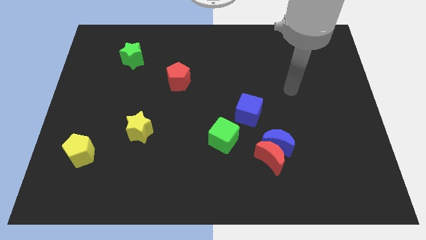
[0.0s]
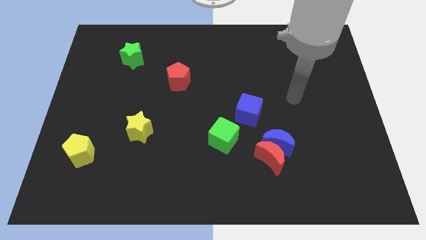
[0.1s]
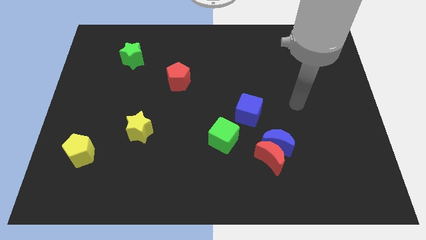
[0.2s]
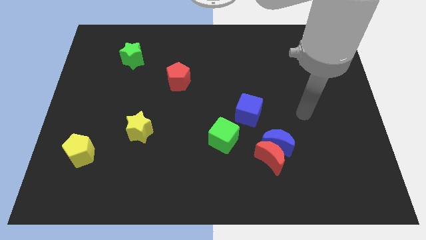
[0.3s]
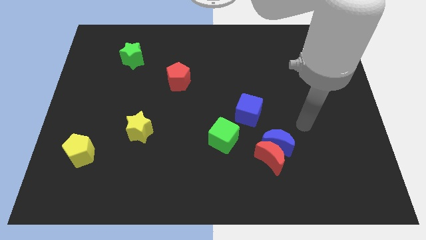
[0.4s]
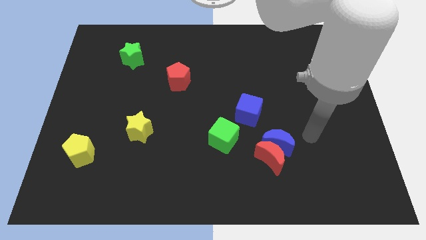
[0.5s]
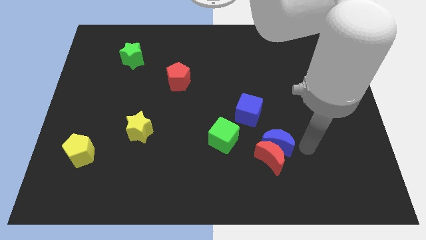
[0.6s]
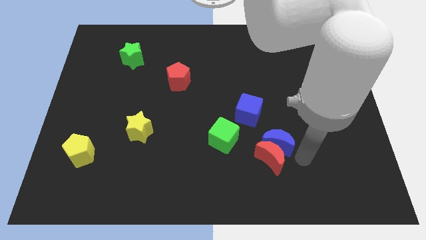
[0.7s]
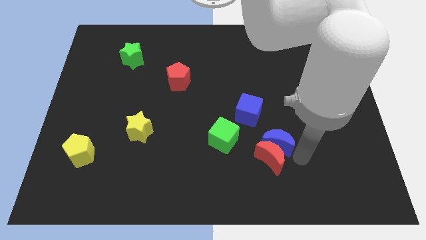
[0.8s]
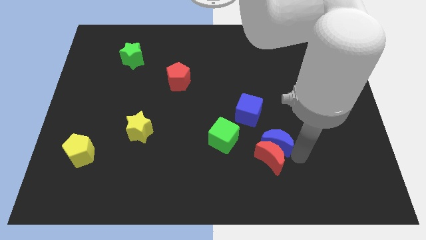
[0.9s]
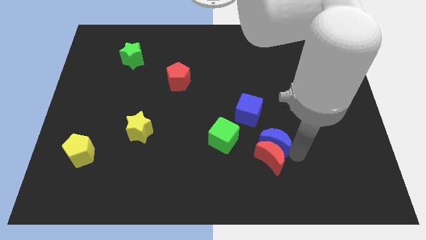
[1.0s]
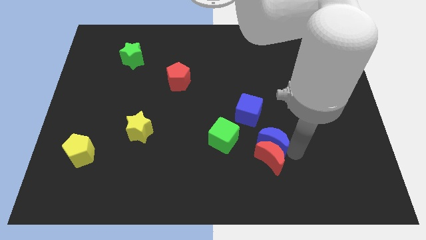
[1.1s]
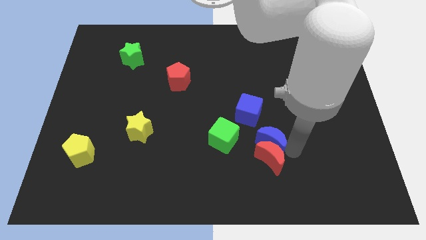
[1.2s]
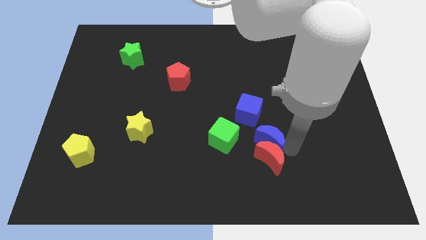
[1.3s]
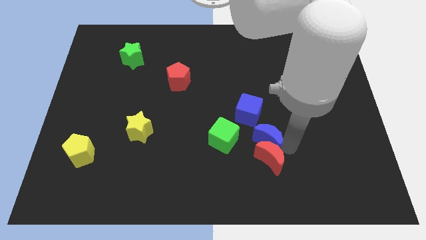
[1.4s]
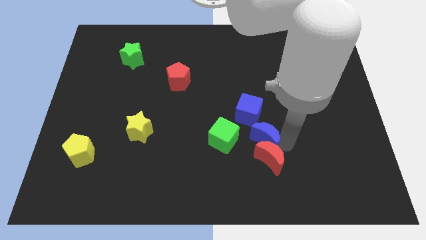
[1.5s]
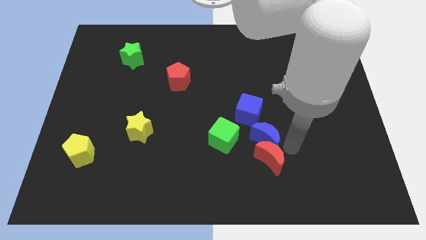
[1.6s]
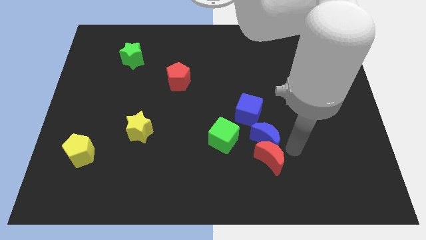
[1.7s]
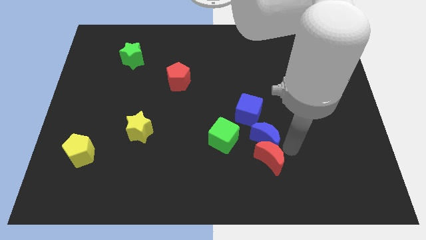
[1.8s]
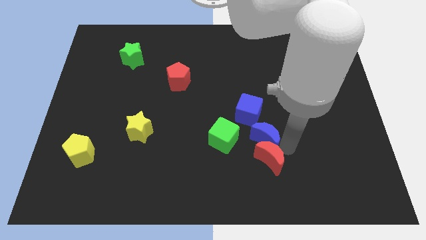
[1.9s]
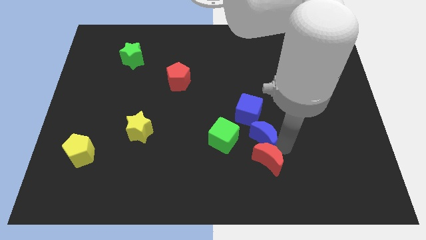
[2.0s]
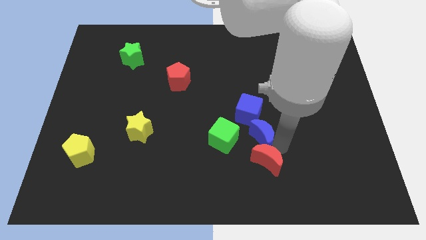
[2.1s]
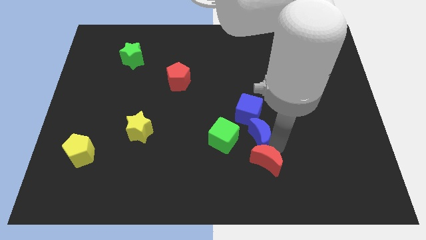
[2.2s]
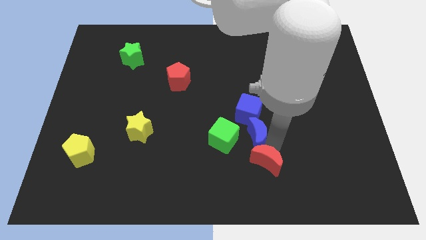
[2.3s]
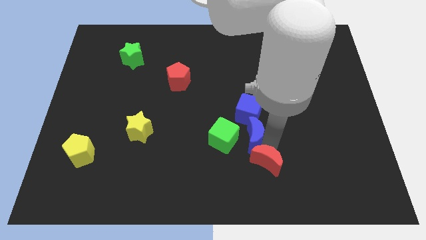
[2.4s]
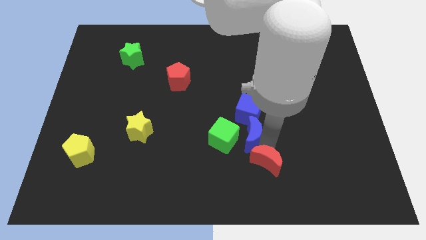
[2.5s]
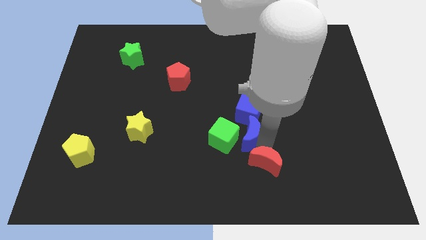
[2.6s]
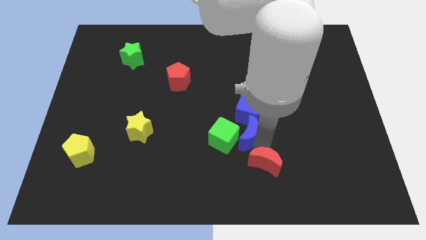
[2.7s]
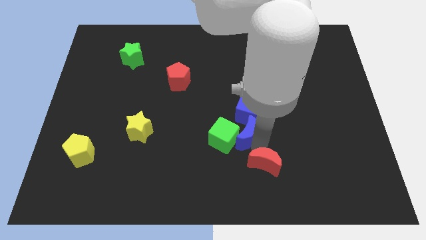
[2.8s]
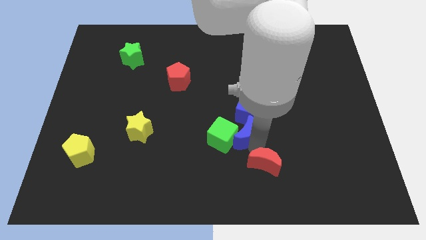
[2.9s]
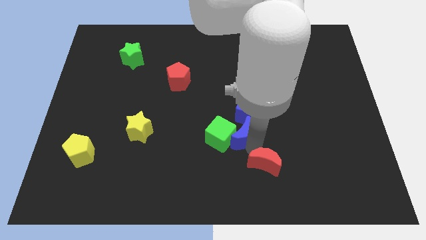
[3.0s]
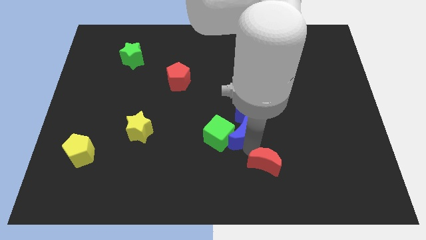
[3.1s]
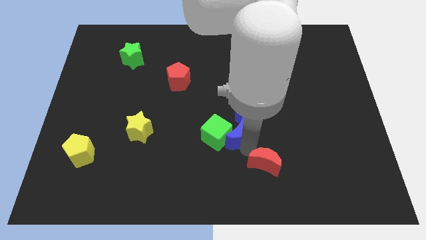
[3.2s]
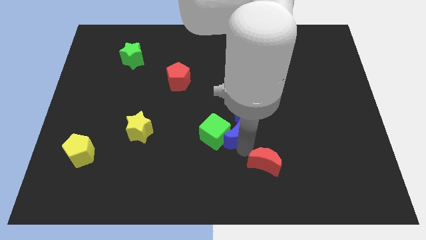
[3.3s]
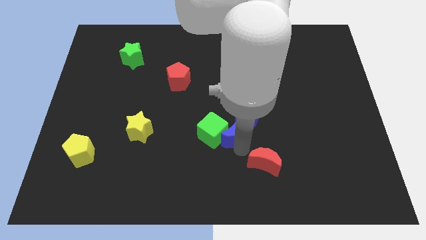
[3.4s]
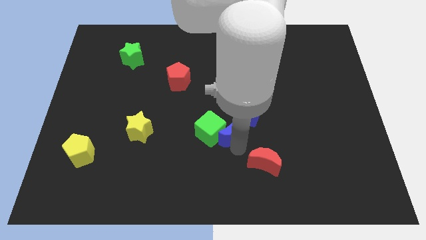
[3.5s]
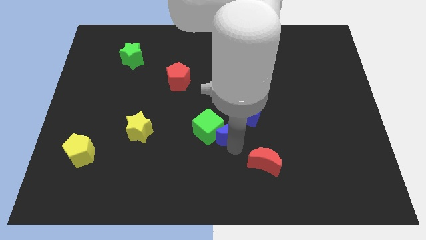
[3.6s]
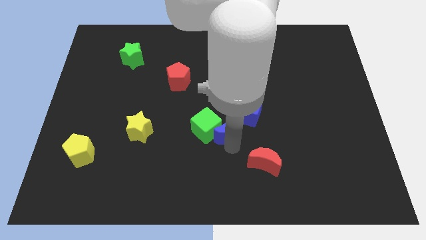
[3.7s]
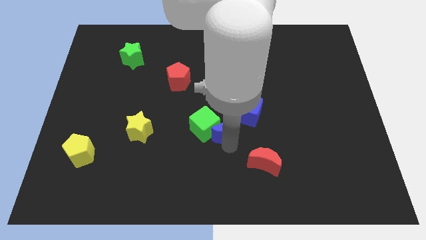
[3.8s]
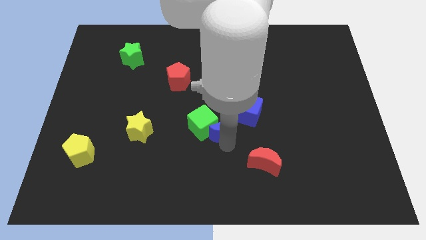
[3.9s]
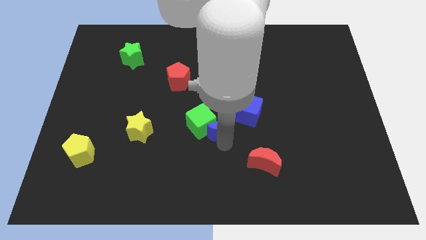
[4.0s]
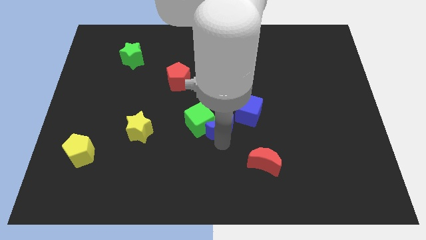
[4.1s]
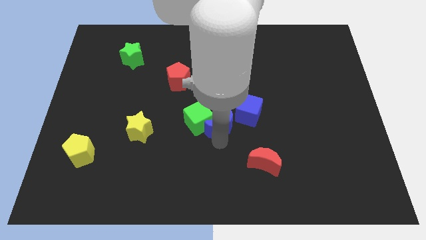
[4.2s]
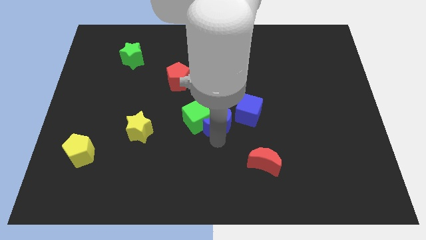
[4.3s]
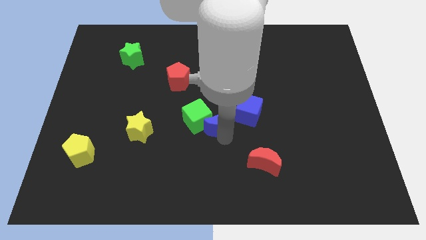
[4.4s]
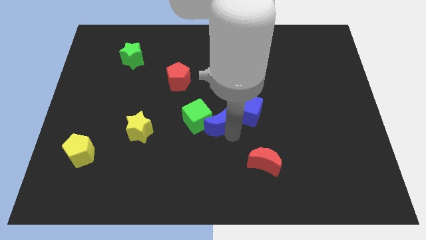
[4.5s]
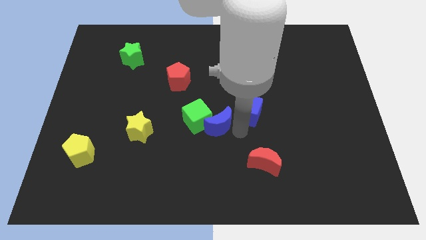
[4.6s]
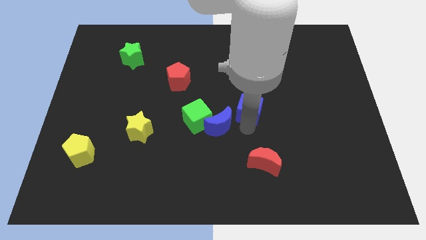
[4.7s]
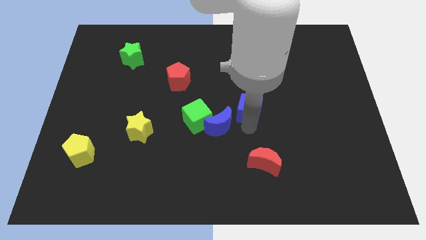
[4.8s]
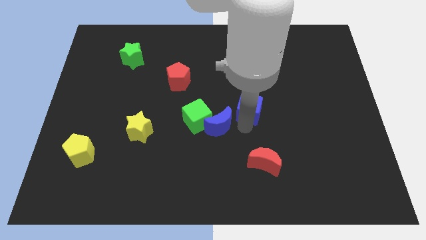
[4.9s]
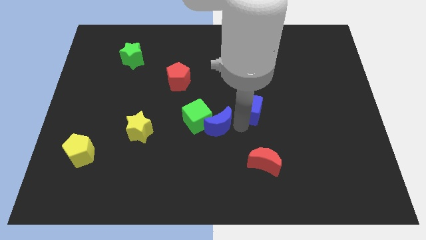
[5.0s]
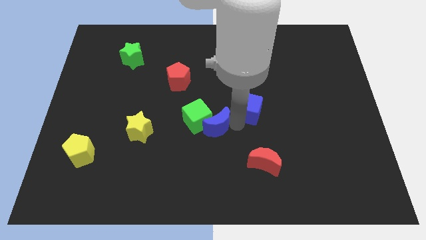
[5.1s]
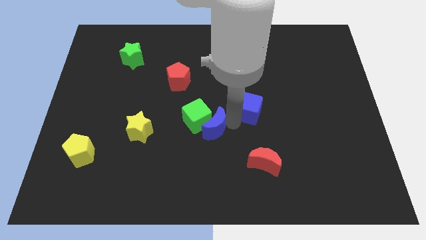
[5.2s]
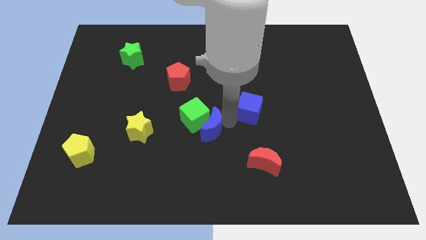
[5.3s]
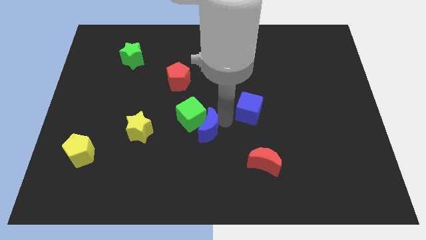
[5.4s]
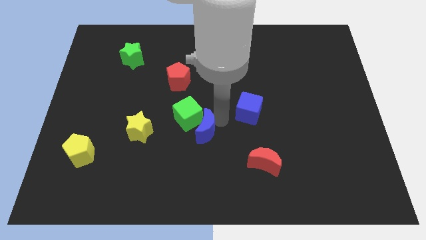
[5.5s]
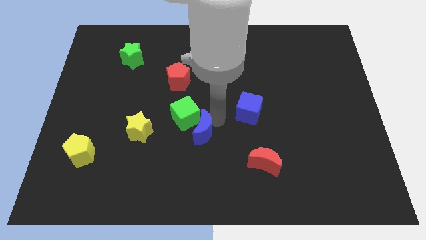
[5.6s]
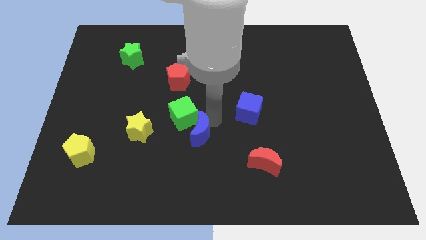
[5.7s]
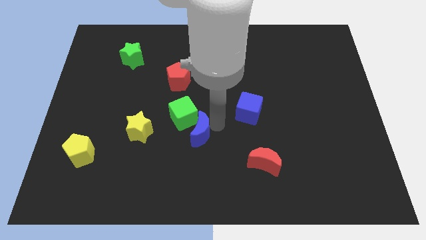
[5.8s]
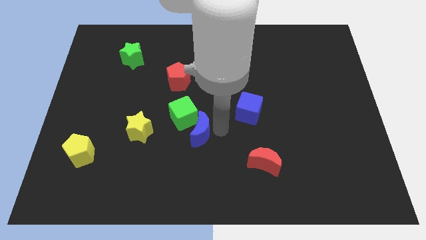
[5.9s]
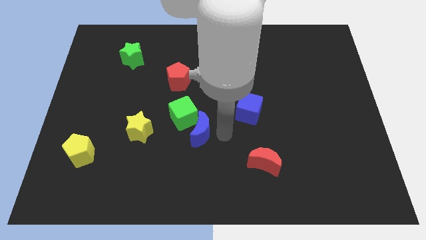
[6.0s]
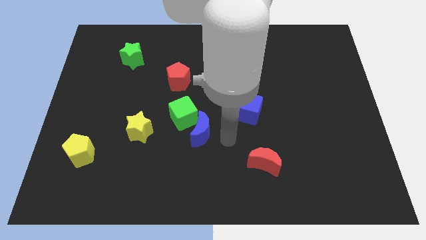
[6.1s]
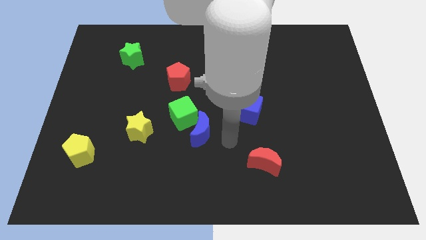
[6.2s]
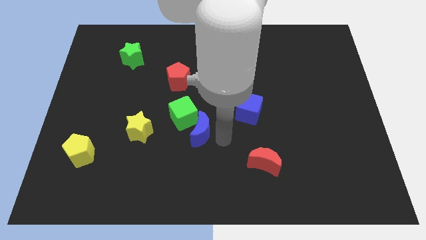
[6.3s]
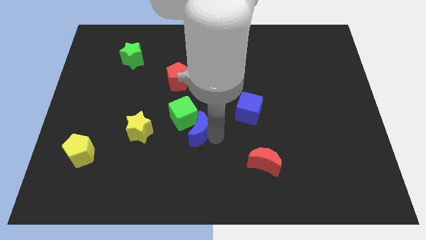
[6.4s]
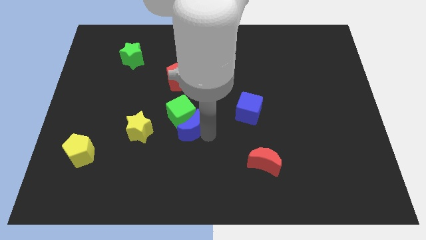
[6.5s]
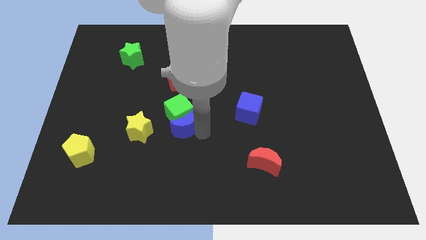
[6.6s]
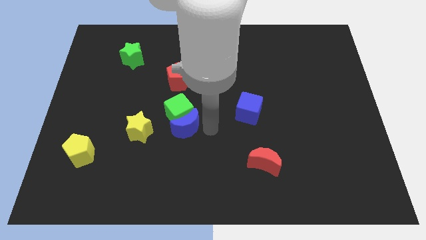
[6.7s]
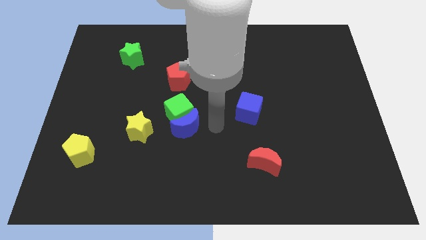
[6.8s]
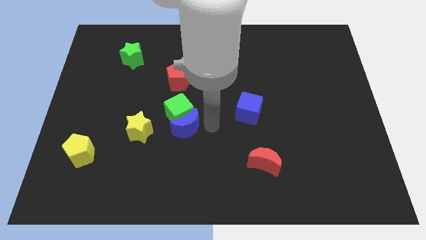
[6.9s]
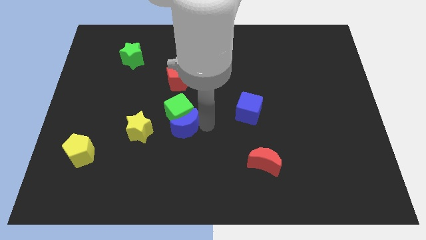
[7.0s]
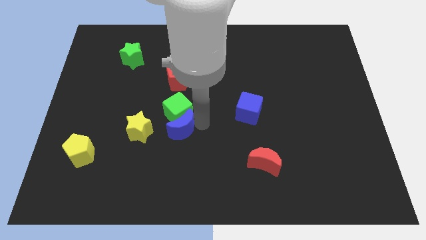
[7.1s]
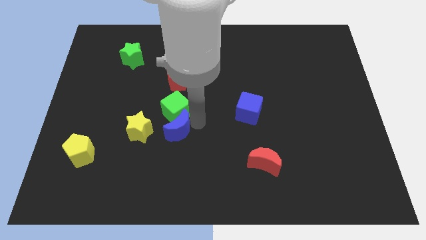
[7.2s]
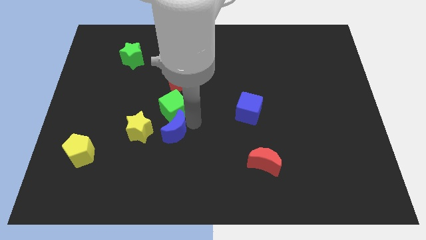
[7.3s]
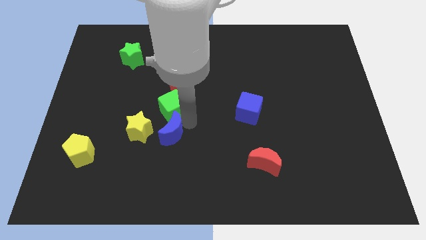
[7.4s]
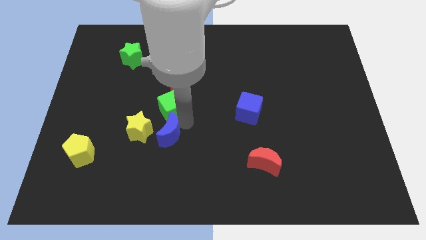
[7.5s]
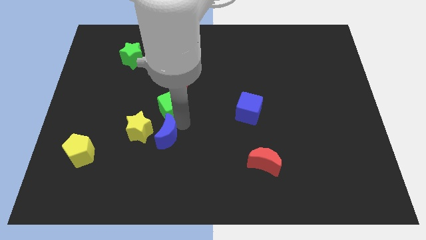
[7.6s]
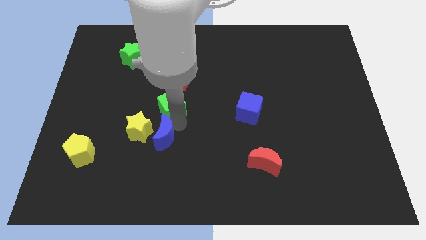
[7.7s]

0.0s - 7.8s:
move the blue moon next to the yellow star
